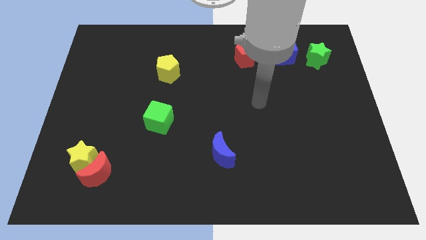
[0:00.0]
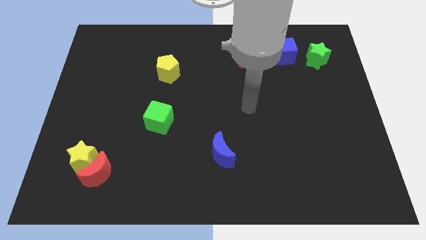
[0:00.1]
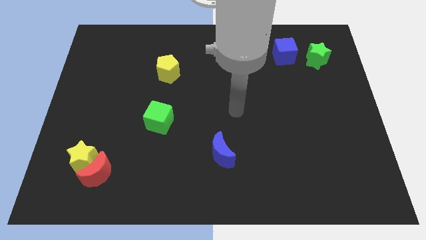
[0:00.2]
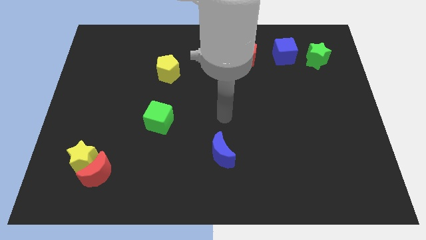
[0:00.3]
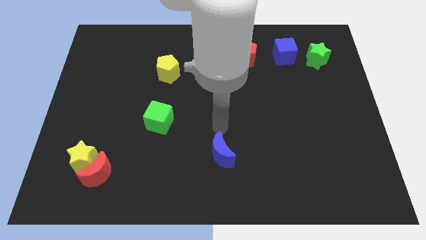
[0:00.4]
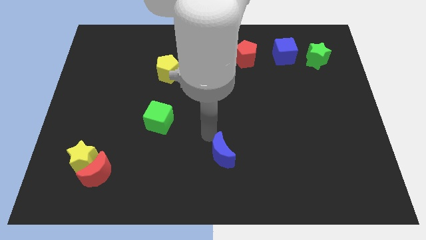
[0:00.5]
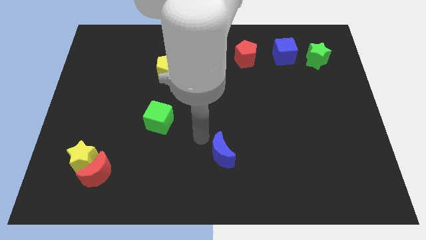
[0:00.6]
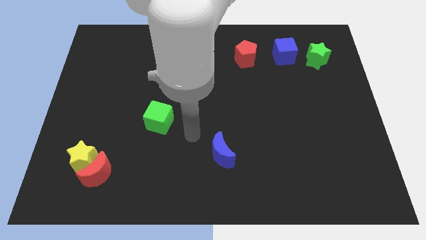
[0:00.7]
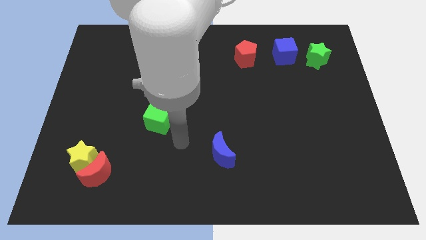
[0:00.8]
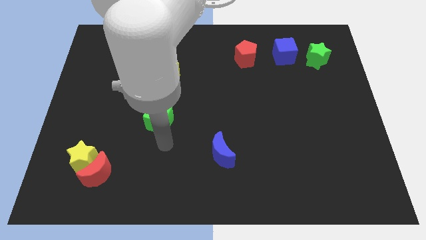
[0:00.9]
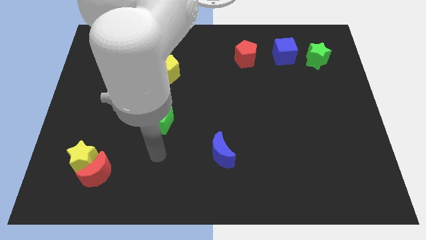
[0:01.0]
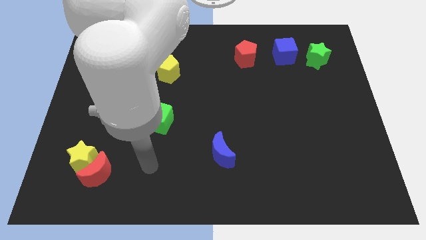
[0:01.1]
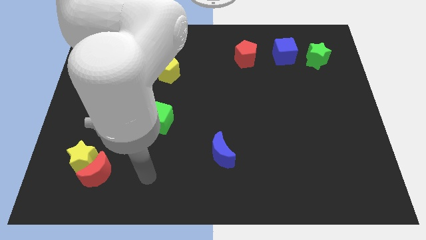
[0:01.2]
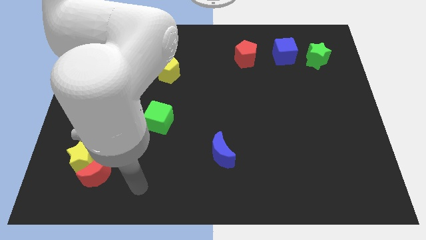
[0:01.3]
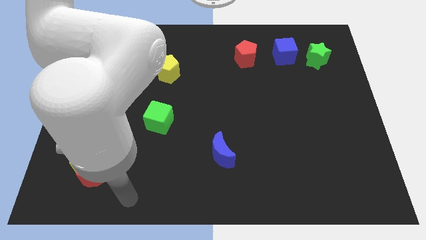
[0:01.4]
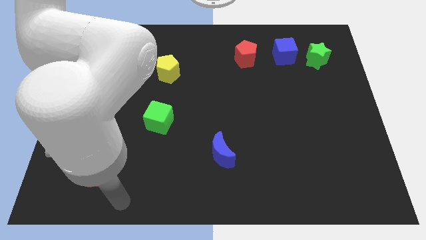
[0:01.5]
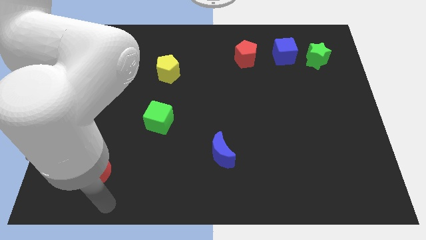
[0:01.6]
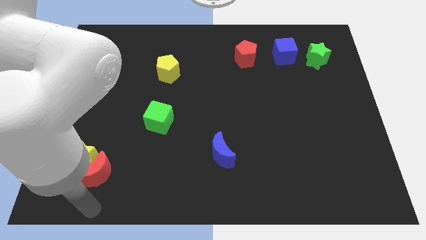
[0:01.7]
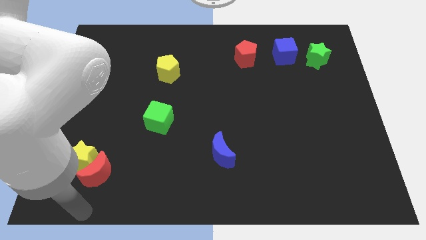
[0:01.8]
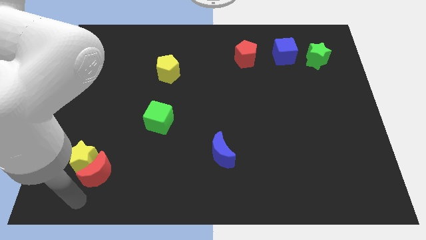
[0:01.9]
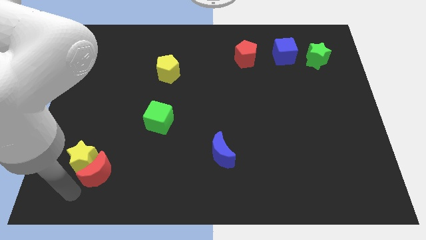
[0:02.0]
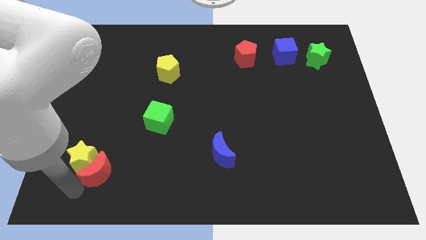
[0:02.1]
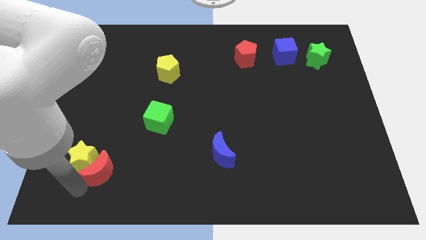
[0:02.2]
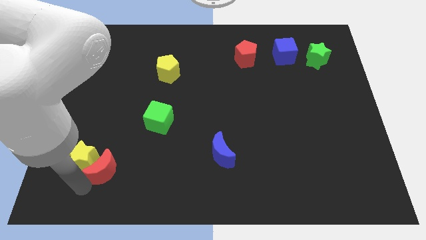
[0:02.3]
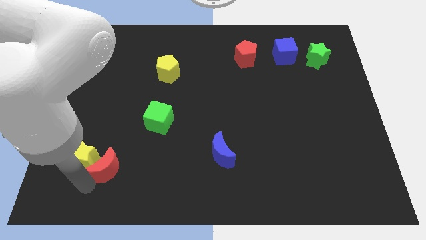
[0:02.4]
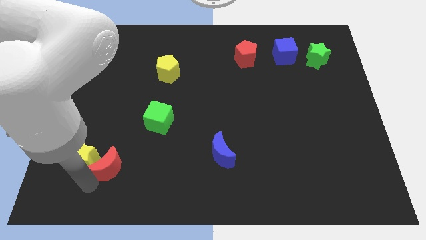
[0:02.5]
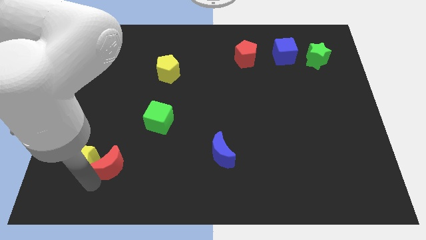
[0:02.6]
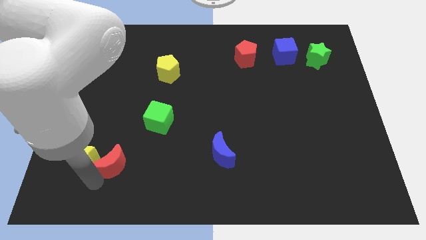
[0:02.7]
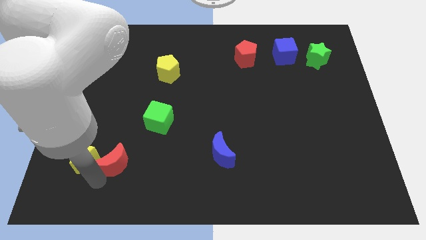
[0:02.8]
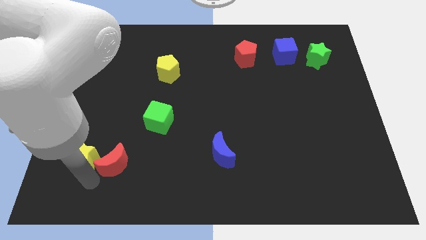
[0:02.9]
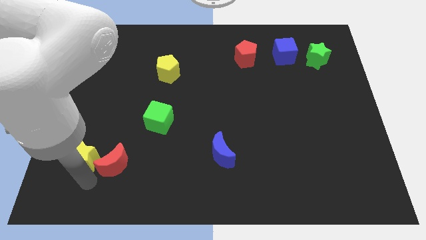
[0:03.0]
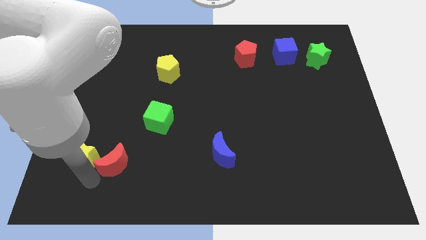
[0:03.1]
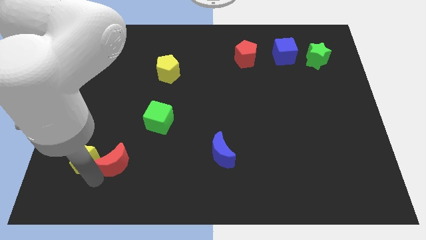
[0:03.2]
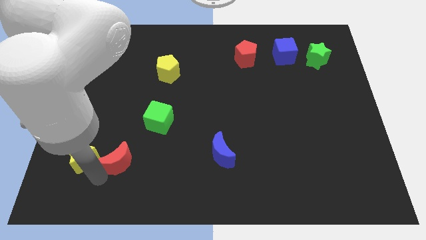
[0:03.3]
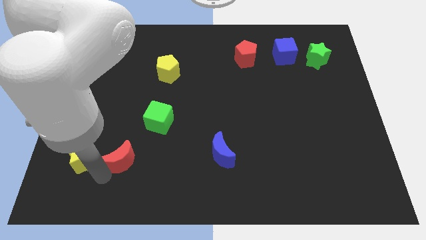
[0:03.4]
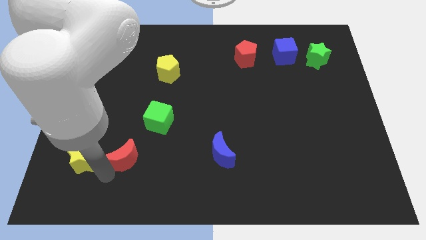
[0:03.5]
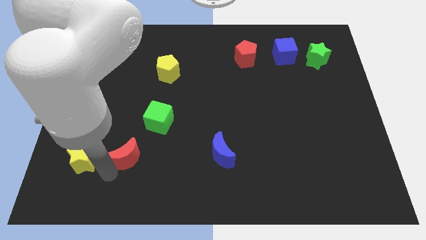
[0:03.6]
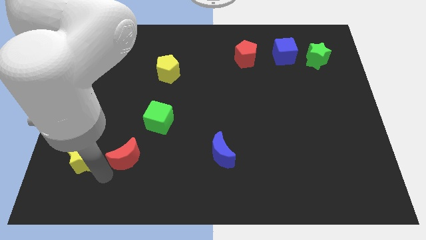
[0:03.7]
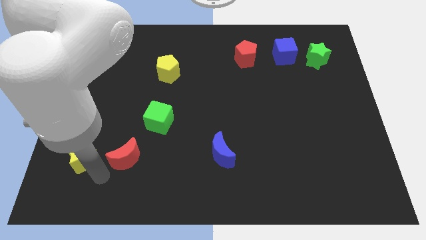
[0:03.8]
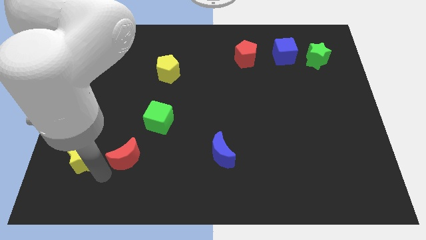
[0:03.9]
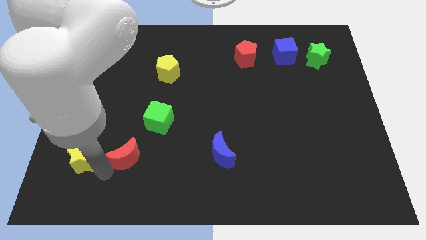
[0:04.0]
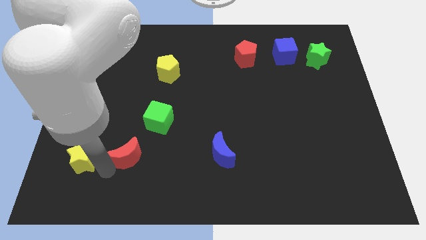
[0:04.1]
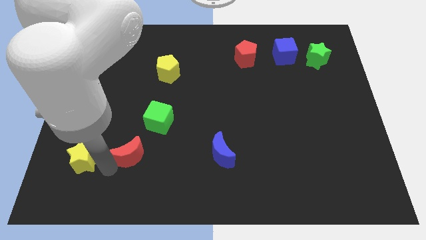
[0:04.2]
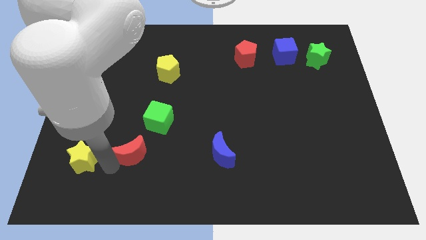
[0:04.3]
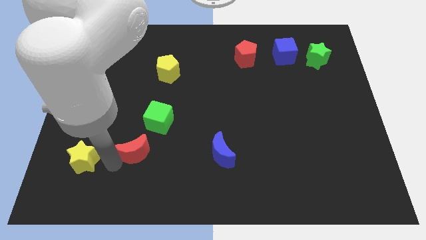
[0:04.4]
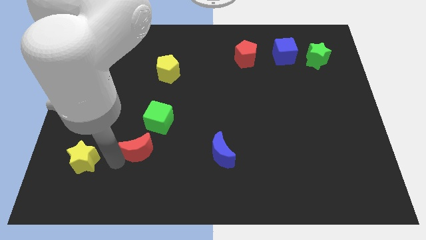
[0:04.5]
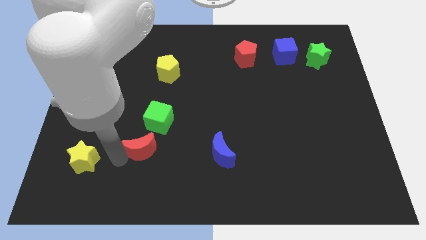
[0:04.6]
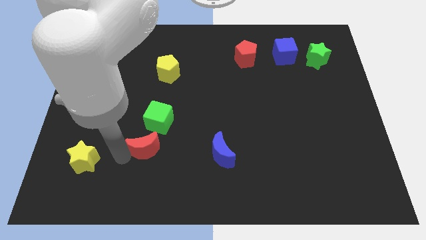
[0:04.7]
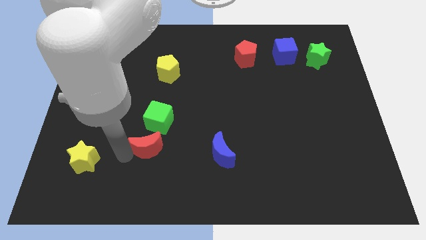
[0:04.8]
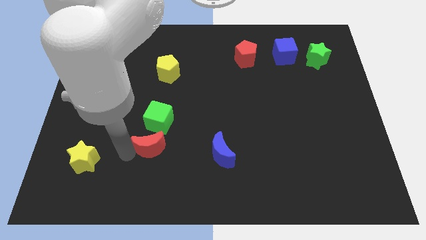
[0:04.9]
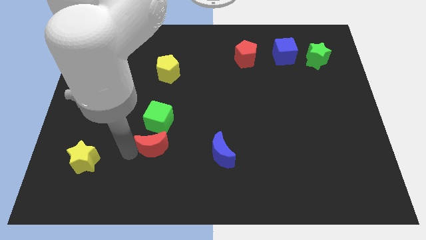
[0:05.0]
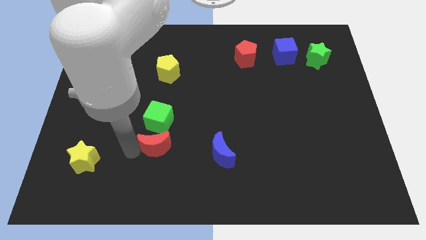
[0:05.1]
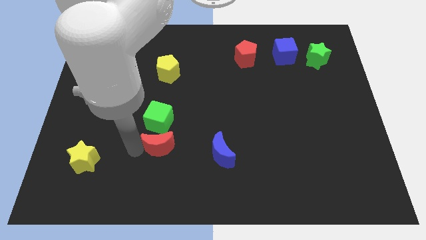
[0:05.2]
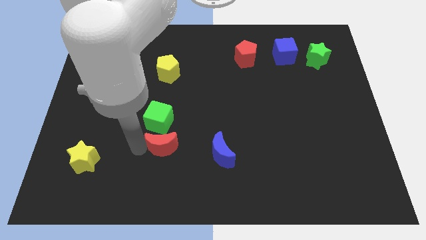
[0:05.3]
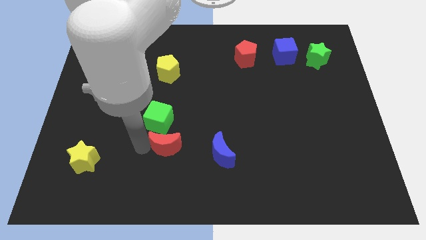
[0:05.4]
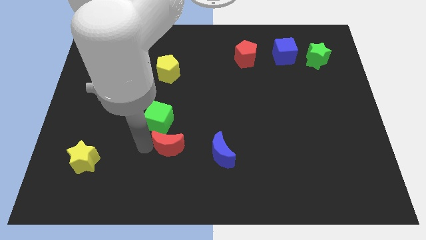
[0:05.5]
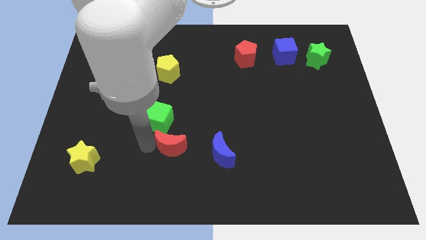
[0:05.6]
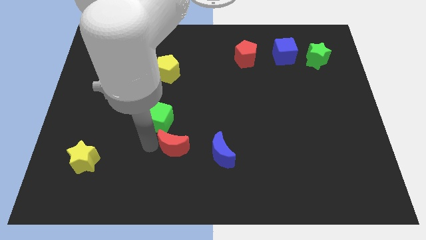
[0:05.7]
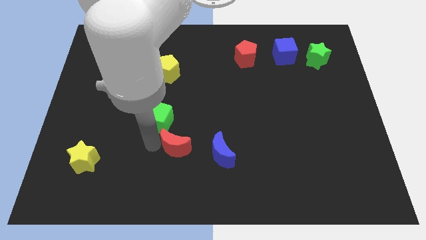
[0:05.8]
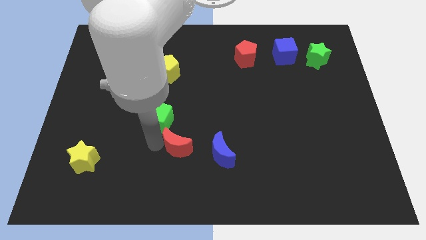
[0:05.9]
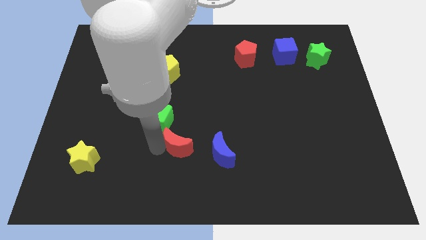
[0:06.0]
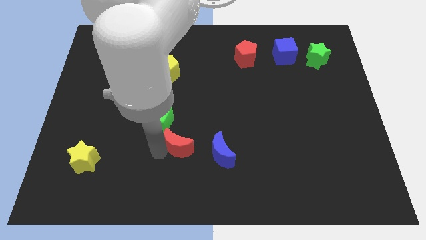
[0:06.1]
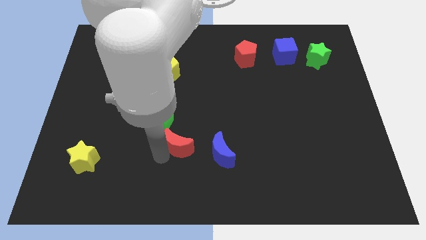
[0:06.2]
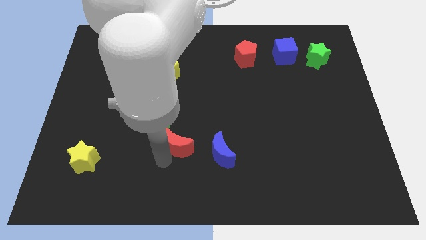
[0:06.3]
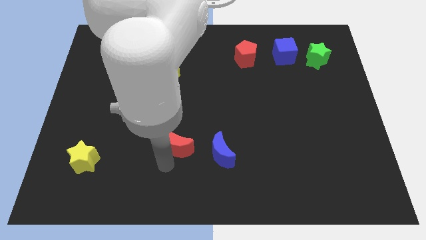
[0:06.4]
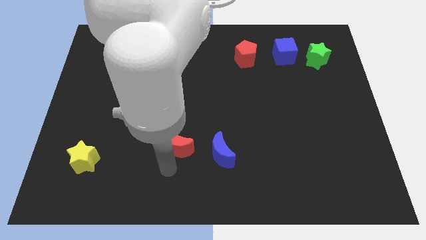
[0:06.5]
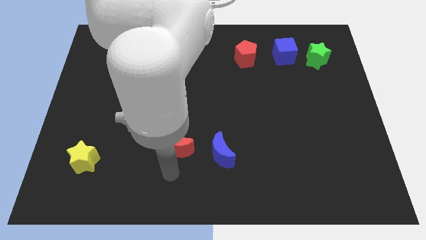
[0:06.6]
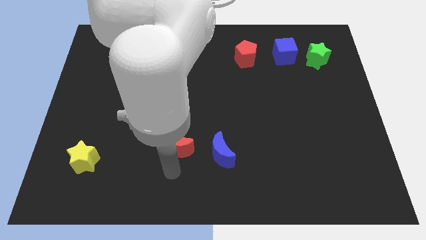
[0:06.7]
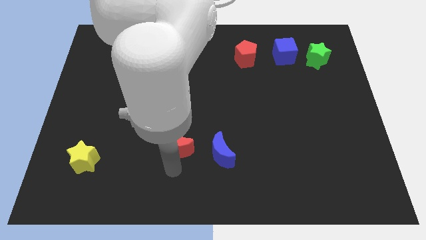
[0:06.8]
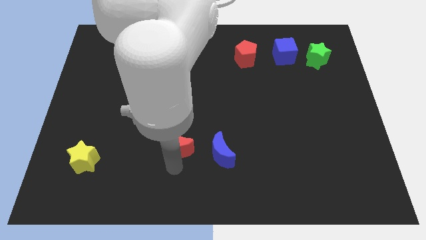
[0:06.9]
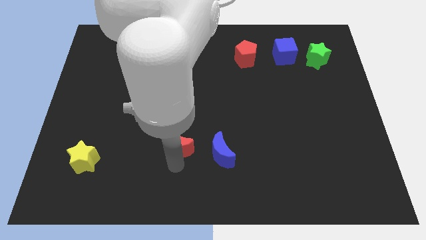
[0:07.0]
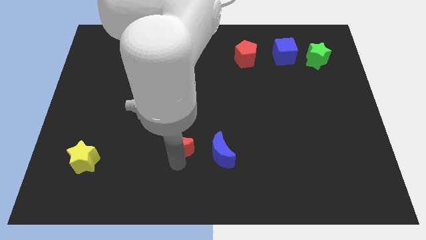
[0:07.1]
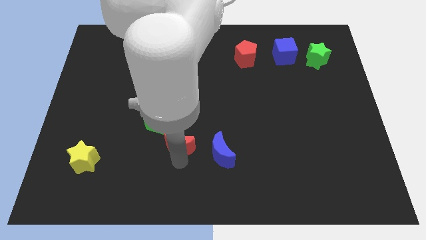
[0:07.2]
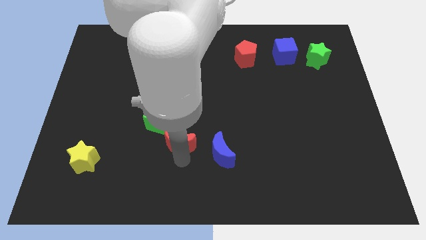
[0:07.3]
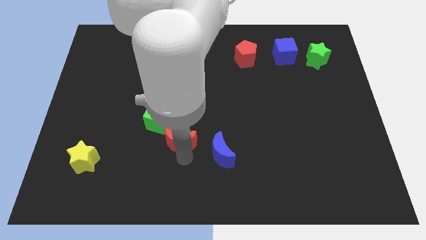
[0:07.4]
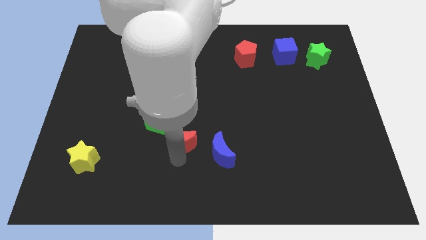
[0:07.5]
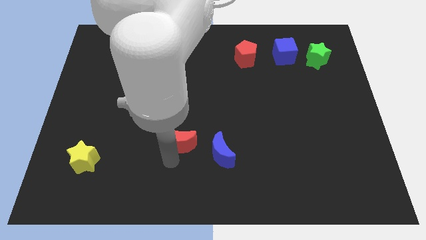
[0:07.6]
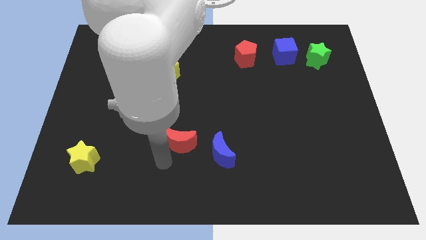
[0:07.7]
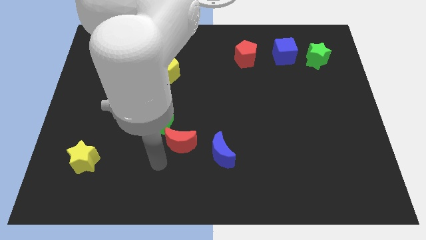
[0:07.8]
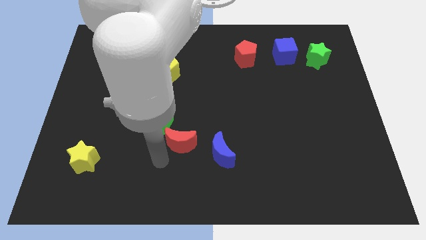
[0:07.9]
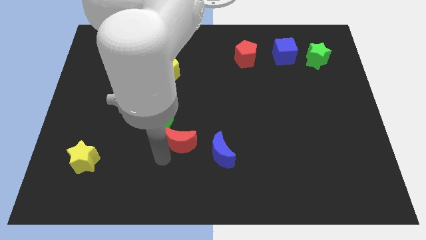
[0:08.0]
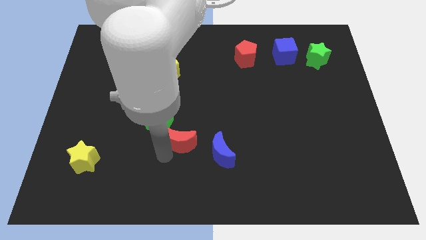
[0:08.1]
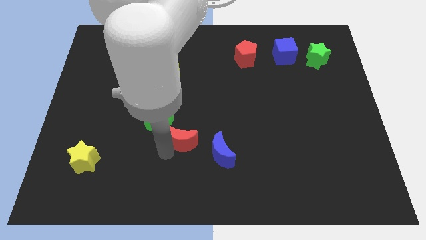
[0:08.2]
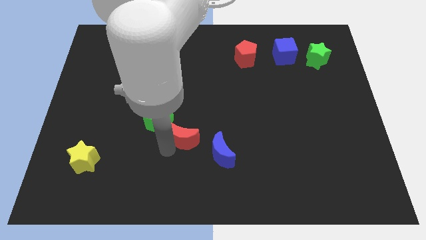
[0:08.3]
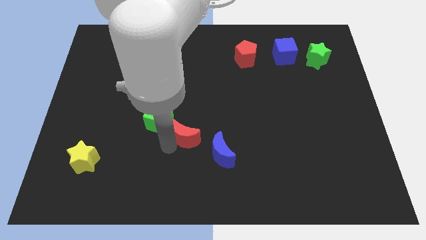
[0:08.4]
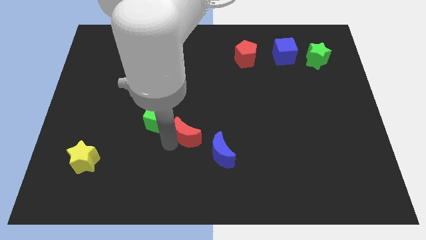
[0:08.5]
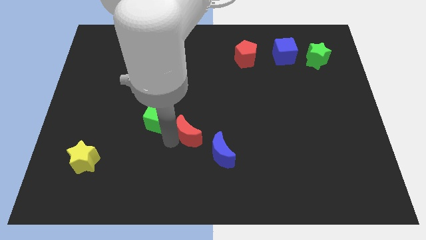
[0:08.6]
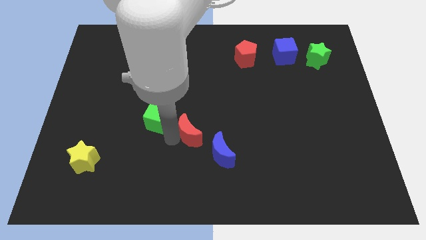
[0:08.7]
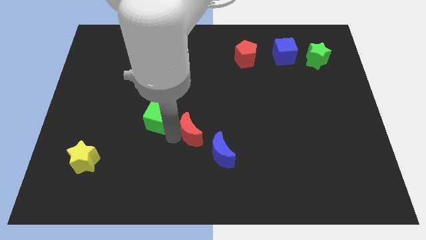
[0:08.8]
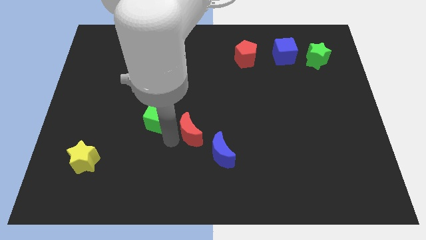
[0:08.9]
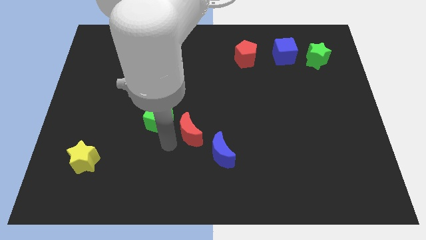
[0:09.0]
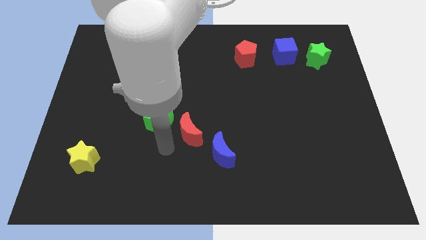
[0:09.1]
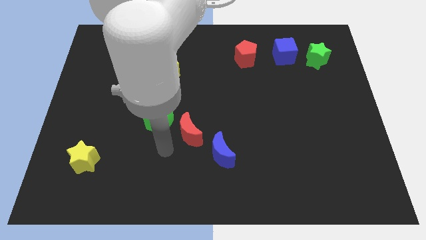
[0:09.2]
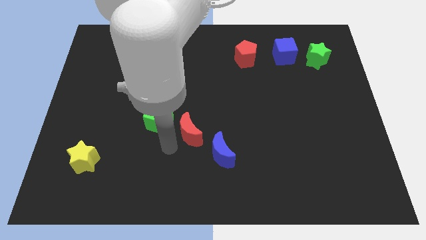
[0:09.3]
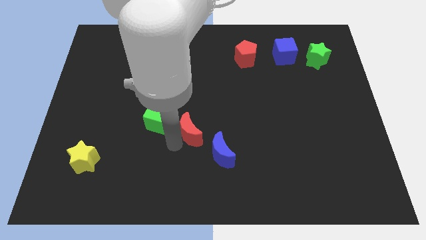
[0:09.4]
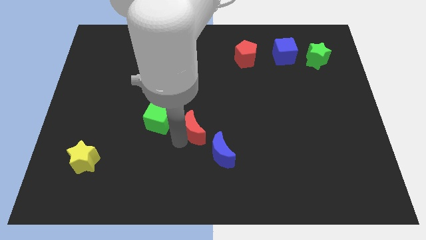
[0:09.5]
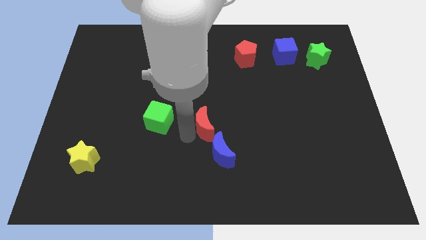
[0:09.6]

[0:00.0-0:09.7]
push the red moon to the top side of the blue moon
